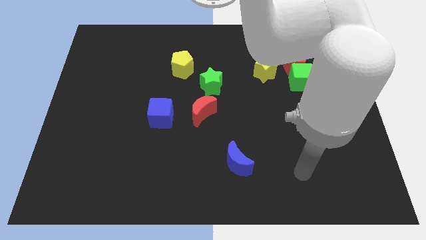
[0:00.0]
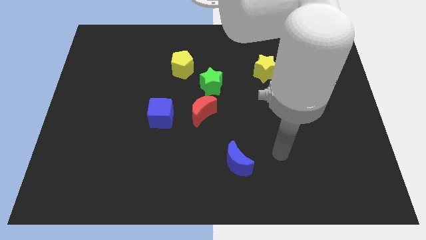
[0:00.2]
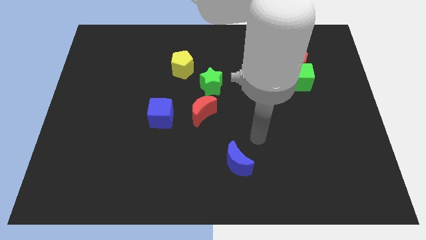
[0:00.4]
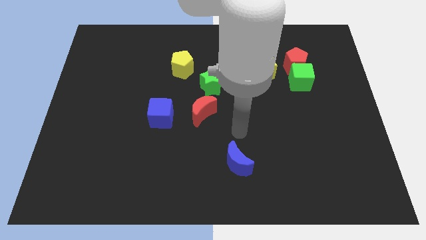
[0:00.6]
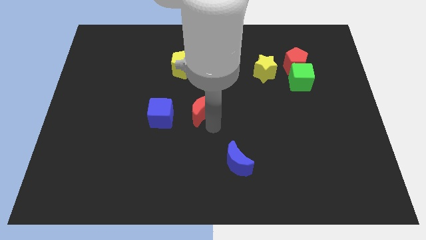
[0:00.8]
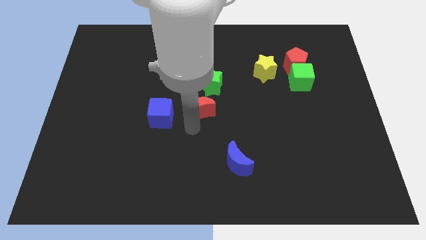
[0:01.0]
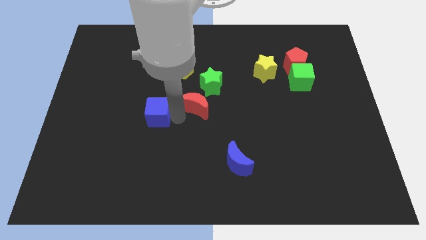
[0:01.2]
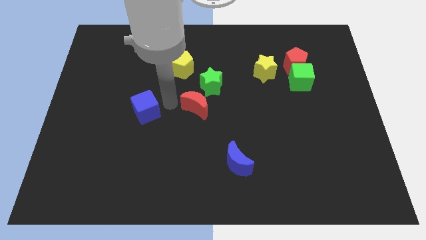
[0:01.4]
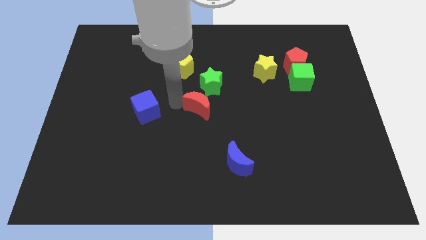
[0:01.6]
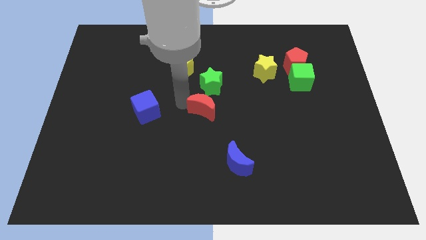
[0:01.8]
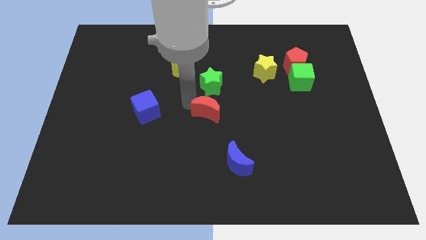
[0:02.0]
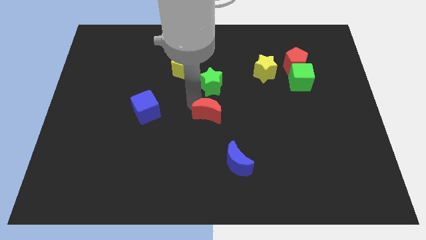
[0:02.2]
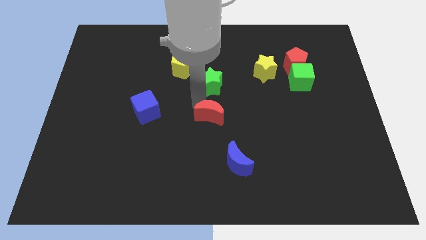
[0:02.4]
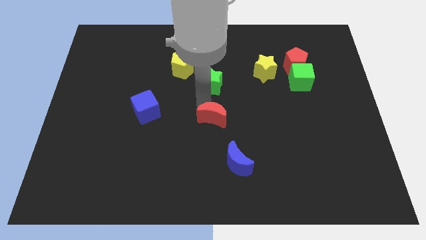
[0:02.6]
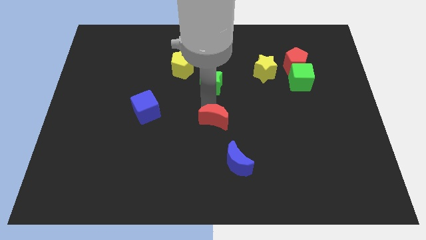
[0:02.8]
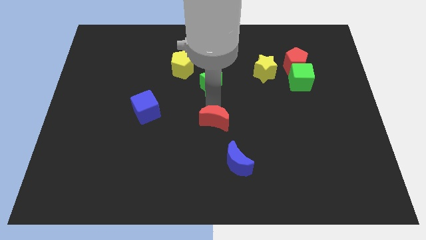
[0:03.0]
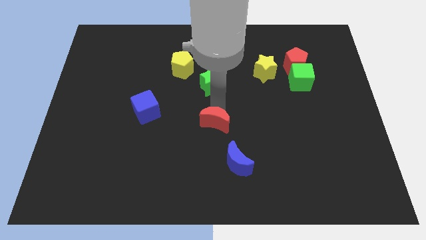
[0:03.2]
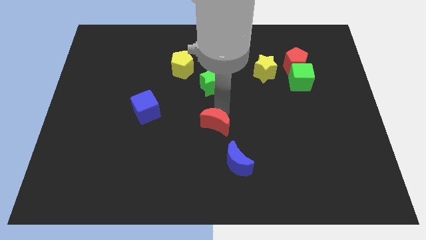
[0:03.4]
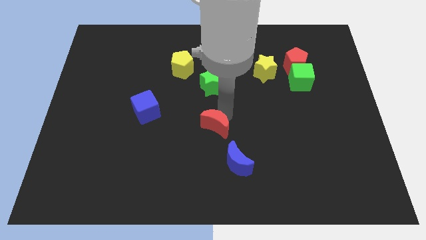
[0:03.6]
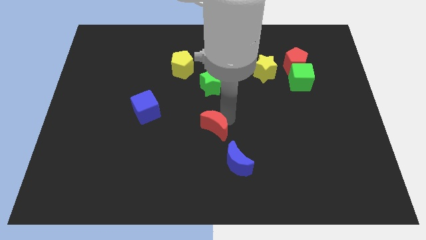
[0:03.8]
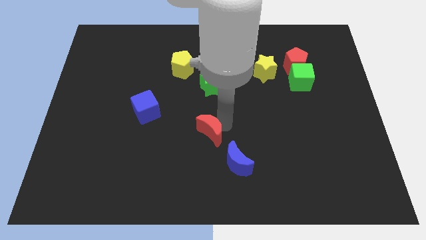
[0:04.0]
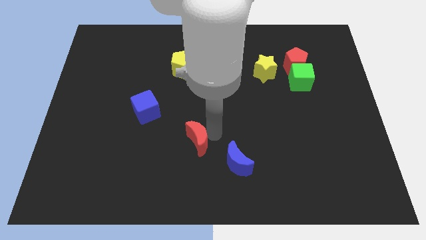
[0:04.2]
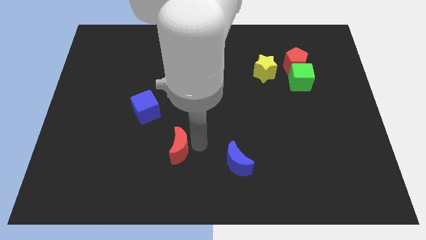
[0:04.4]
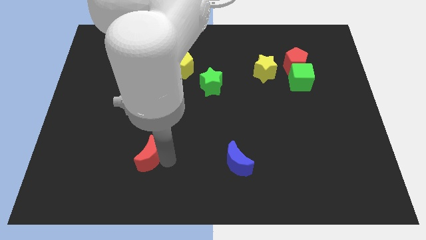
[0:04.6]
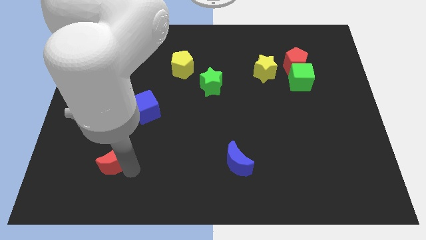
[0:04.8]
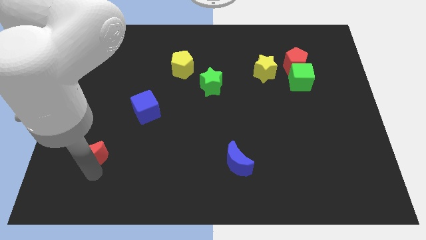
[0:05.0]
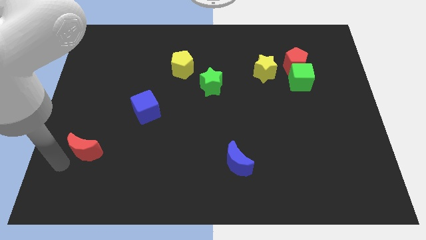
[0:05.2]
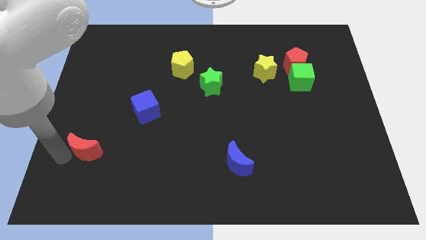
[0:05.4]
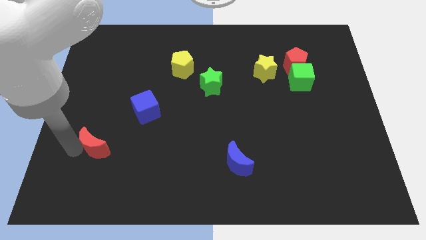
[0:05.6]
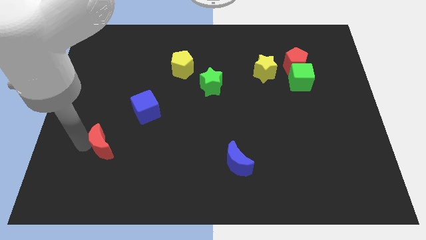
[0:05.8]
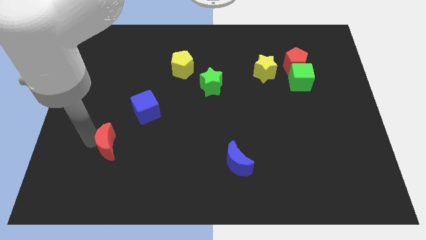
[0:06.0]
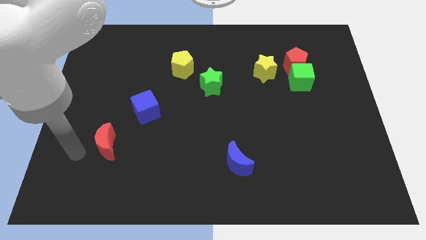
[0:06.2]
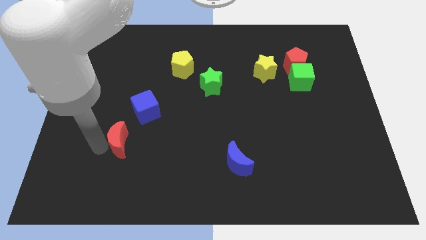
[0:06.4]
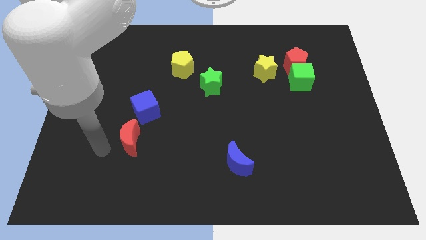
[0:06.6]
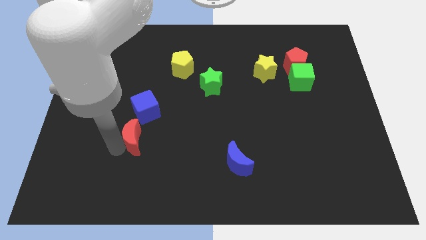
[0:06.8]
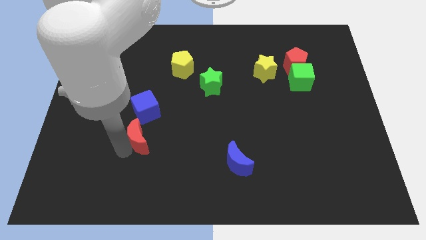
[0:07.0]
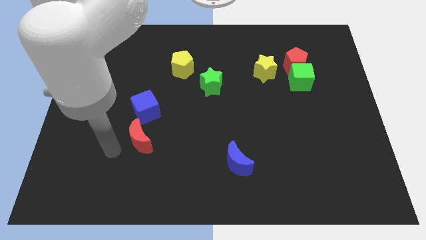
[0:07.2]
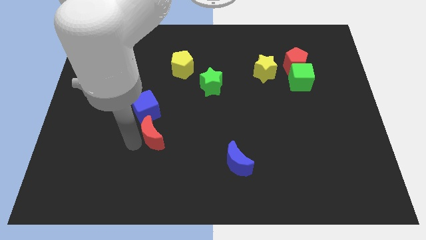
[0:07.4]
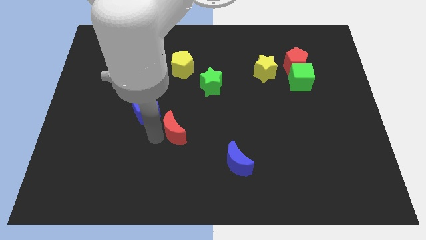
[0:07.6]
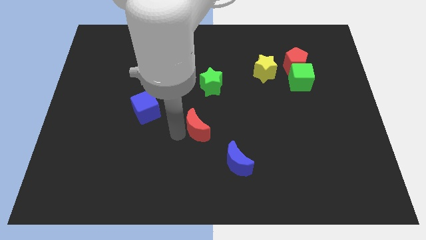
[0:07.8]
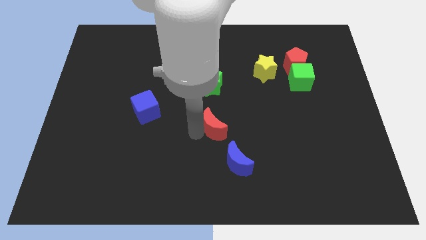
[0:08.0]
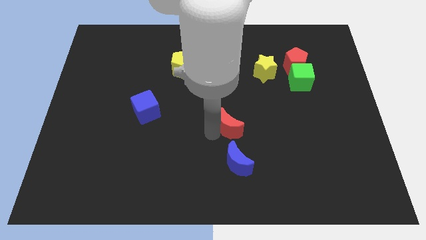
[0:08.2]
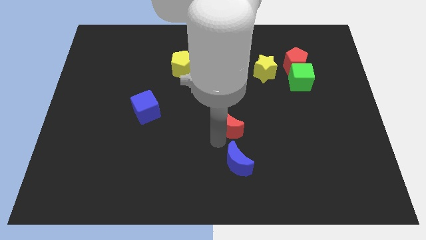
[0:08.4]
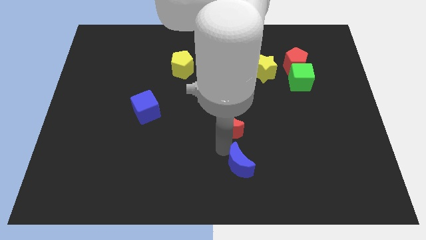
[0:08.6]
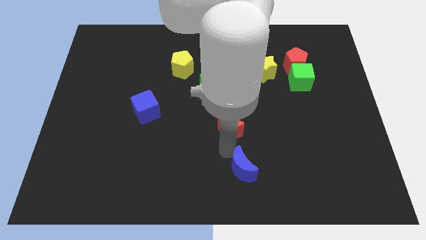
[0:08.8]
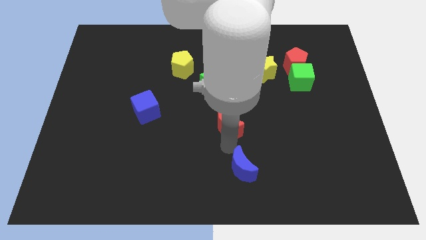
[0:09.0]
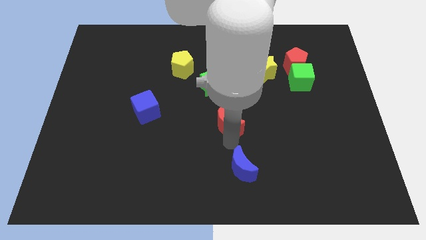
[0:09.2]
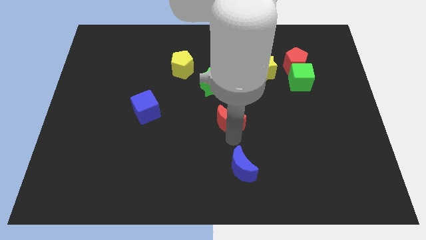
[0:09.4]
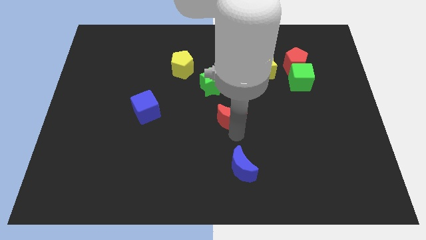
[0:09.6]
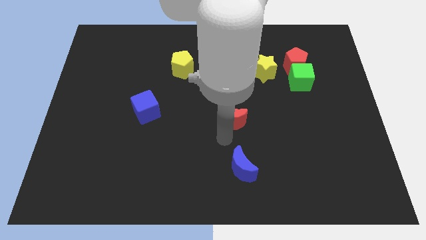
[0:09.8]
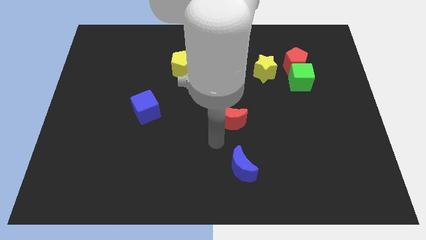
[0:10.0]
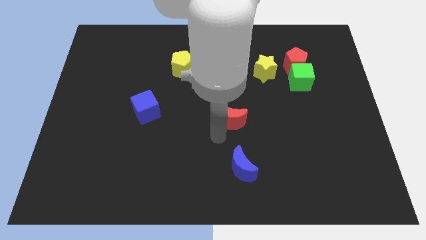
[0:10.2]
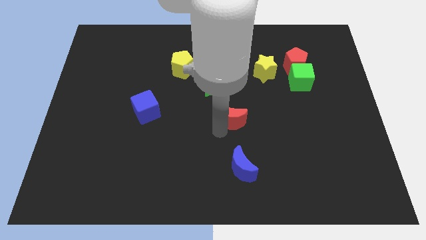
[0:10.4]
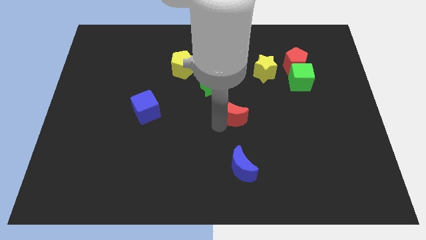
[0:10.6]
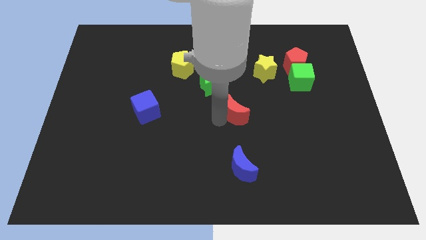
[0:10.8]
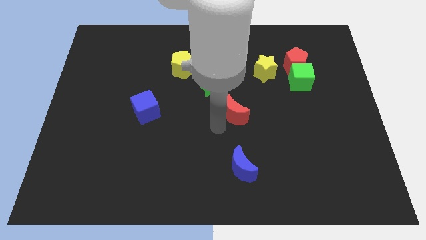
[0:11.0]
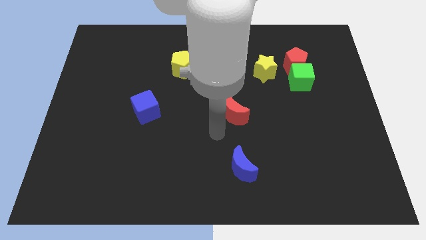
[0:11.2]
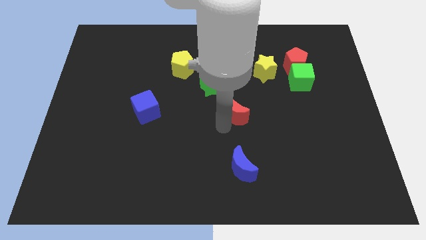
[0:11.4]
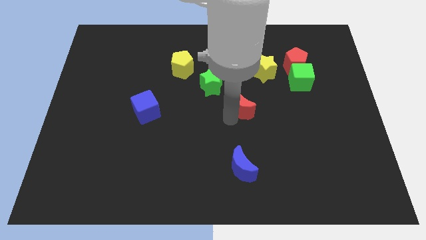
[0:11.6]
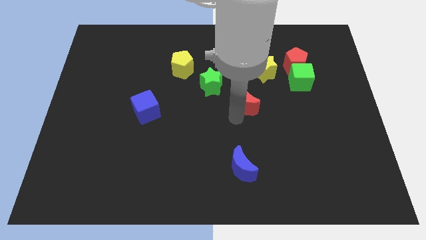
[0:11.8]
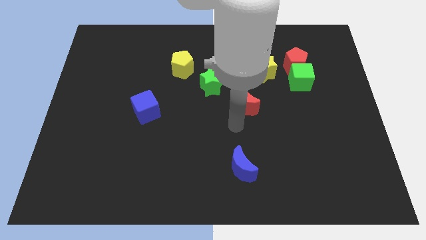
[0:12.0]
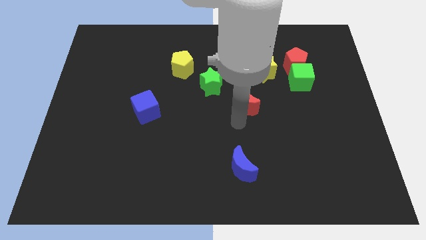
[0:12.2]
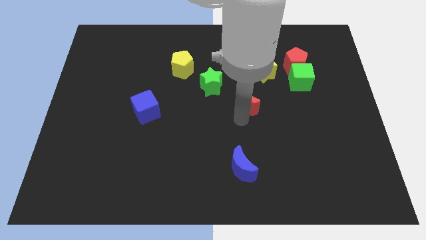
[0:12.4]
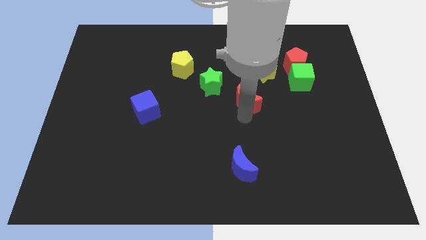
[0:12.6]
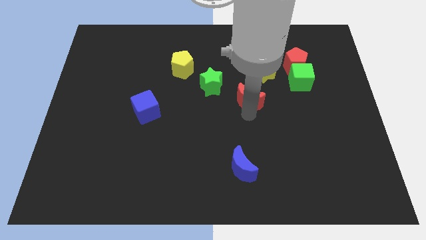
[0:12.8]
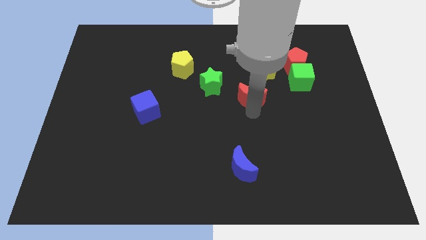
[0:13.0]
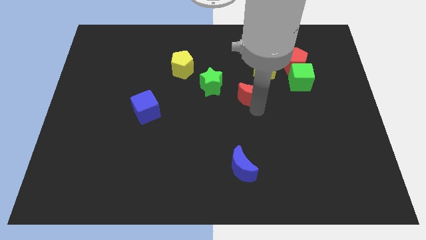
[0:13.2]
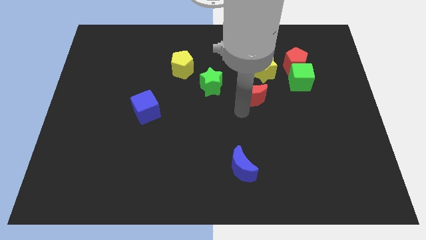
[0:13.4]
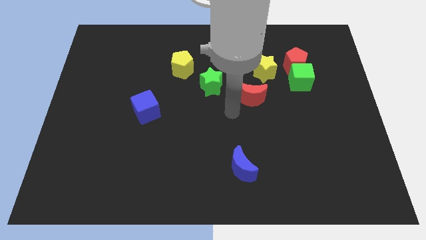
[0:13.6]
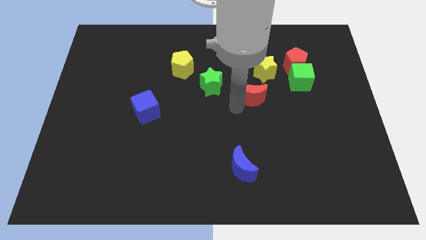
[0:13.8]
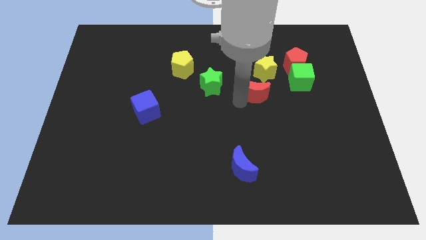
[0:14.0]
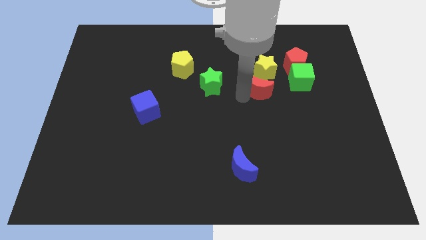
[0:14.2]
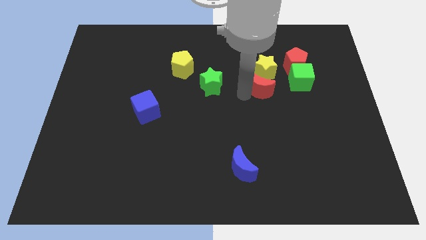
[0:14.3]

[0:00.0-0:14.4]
slide the red moon diagonally down and to the left of the red pentagon

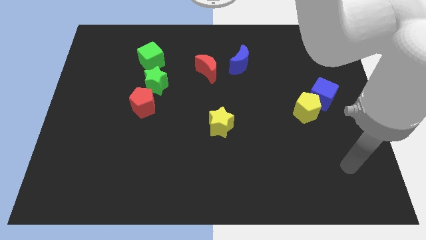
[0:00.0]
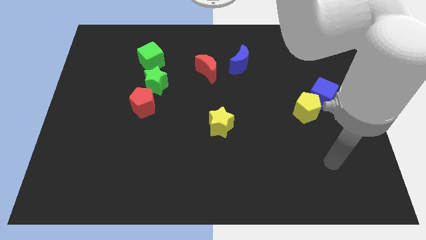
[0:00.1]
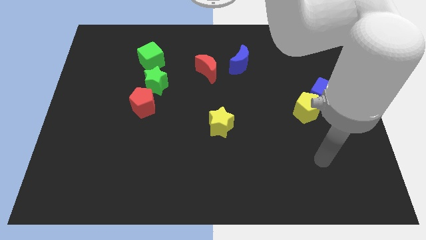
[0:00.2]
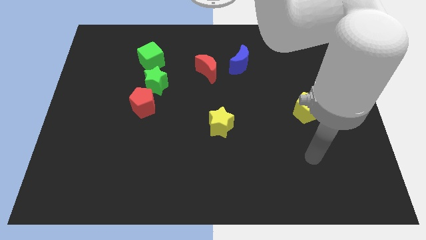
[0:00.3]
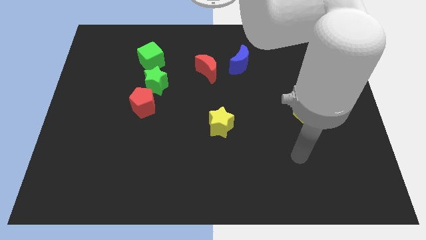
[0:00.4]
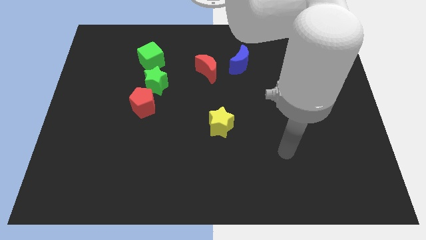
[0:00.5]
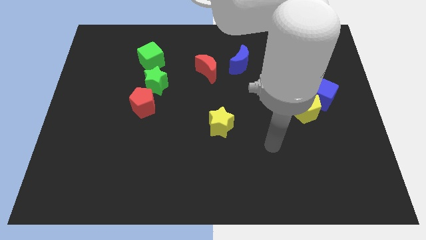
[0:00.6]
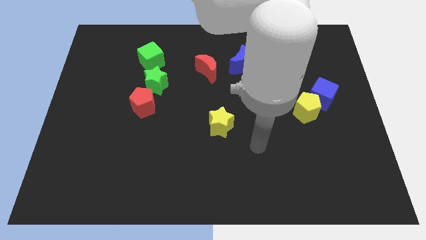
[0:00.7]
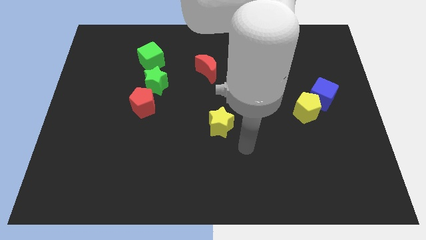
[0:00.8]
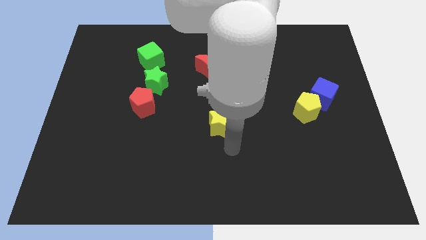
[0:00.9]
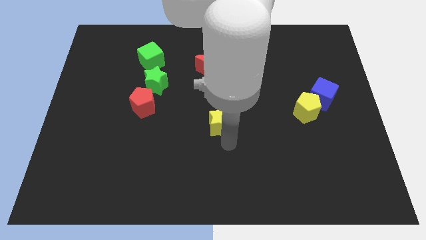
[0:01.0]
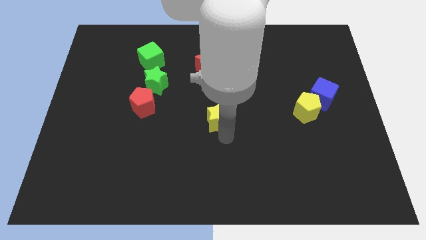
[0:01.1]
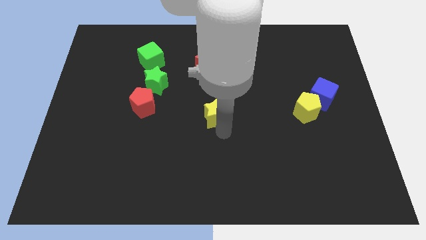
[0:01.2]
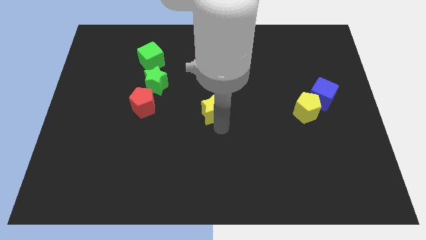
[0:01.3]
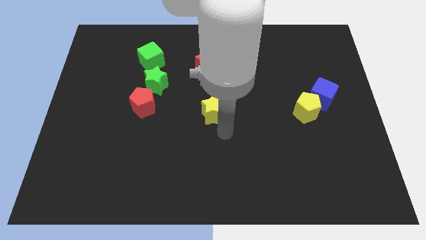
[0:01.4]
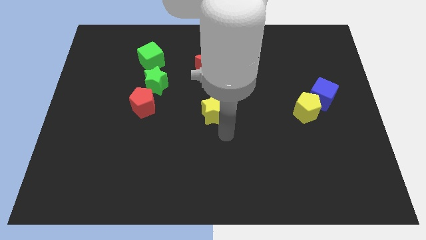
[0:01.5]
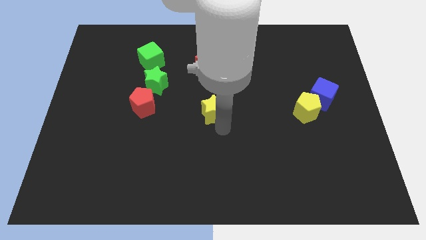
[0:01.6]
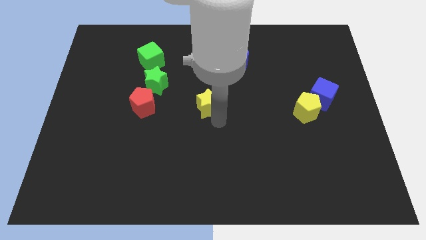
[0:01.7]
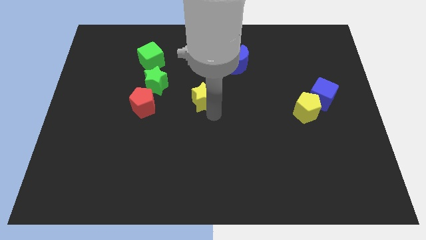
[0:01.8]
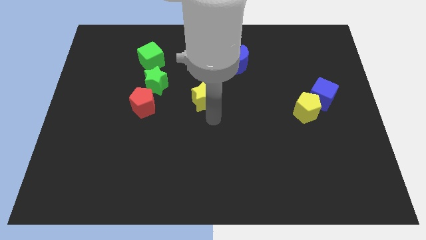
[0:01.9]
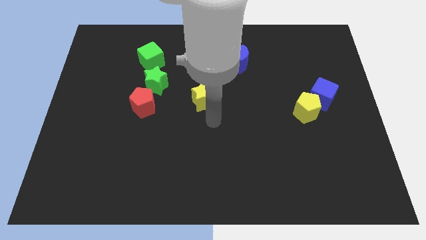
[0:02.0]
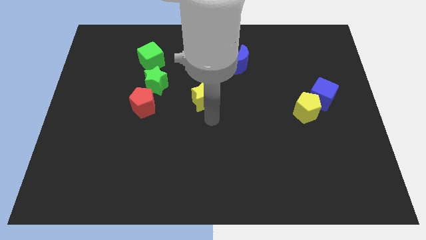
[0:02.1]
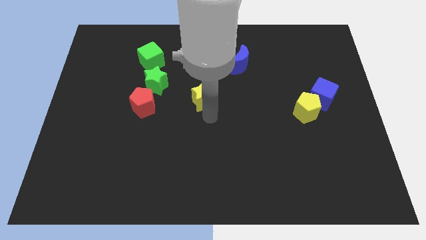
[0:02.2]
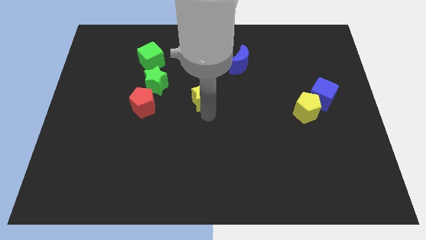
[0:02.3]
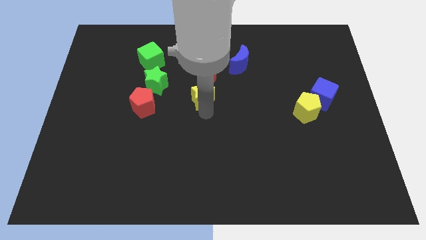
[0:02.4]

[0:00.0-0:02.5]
put the yellow star to the right of the green star
